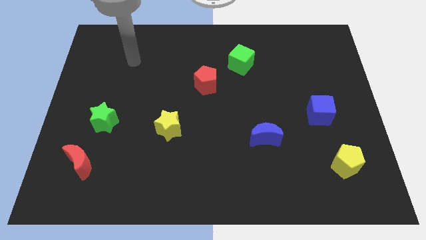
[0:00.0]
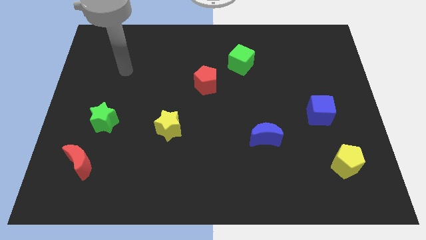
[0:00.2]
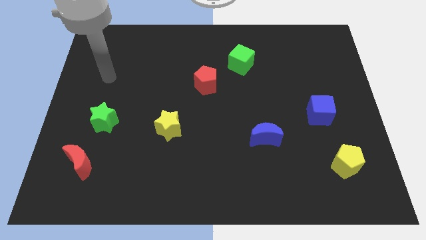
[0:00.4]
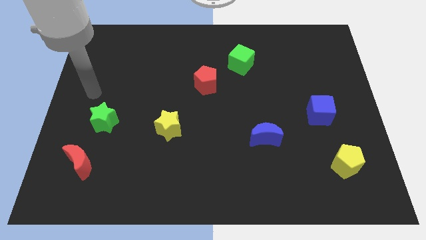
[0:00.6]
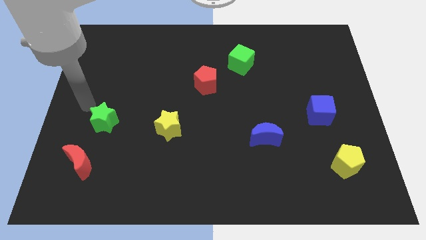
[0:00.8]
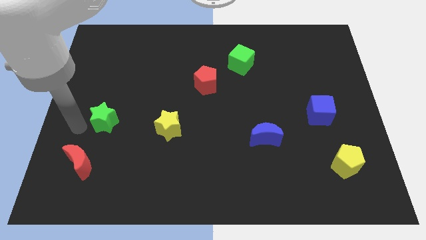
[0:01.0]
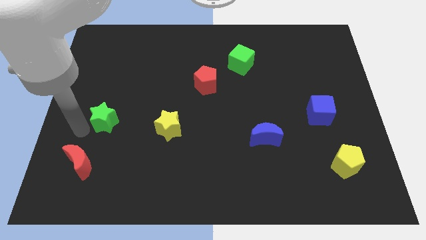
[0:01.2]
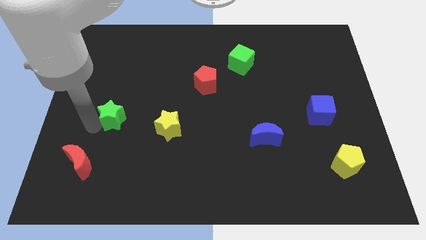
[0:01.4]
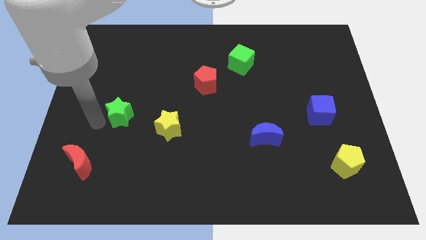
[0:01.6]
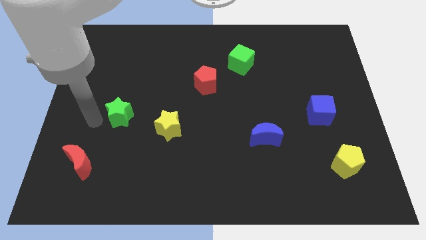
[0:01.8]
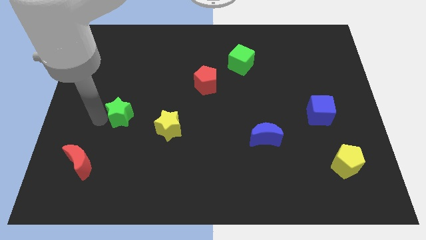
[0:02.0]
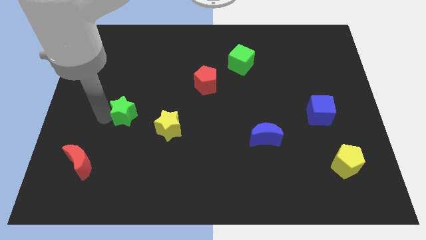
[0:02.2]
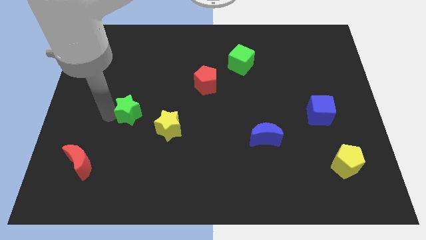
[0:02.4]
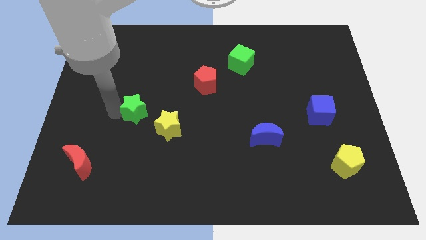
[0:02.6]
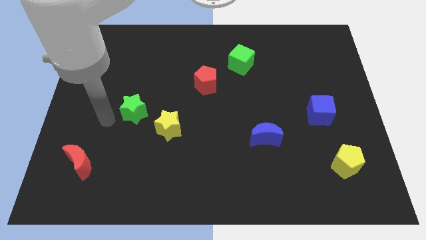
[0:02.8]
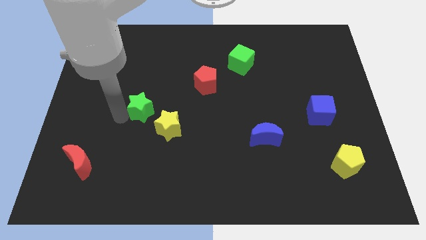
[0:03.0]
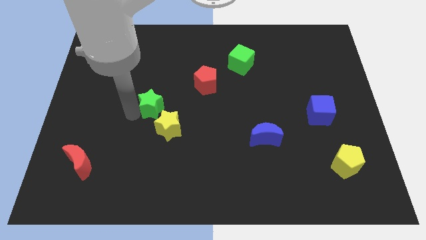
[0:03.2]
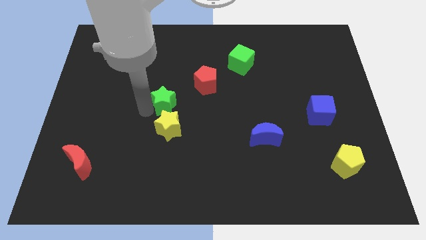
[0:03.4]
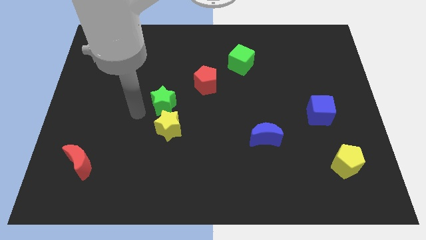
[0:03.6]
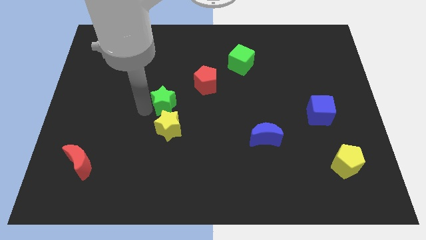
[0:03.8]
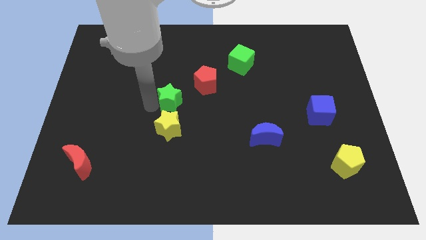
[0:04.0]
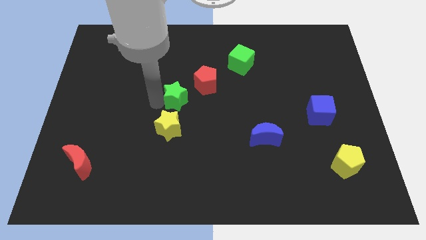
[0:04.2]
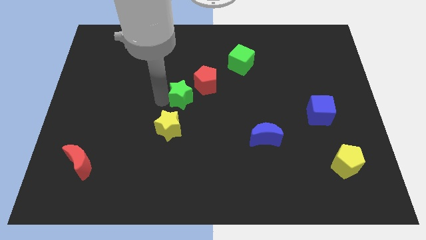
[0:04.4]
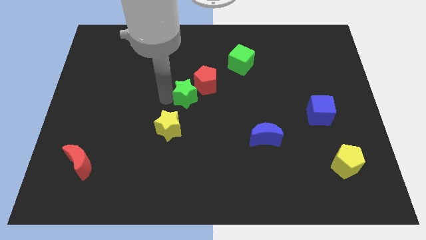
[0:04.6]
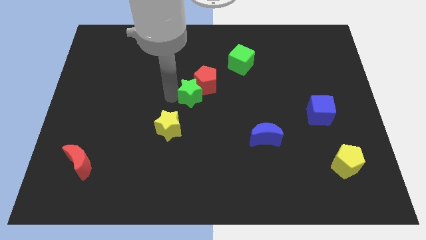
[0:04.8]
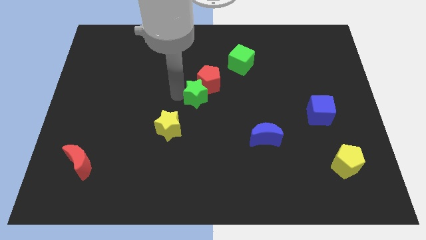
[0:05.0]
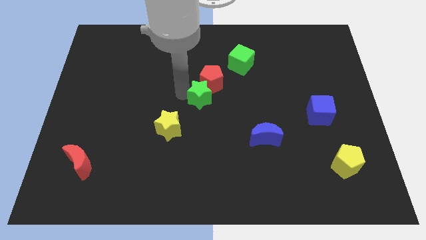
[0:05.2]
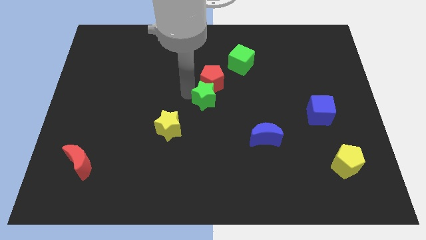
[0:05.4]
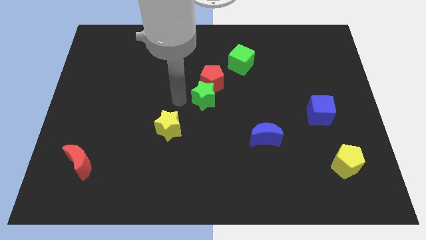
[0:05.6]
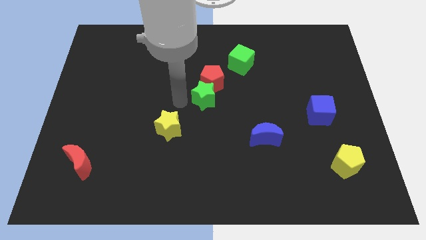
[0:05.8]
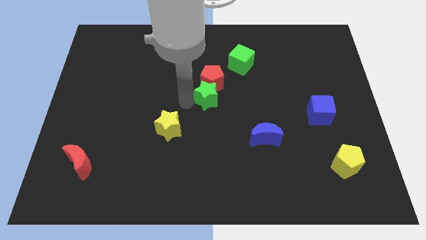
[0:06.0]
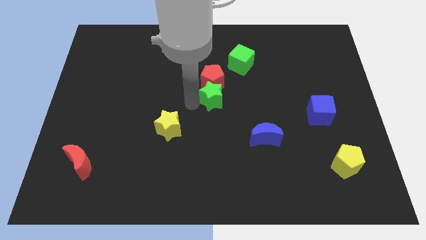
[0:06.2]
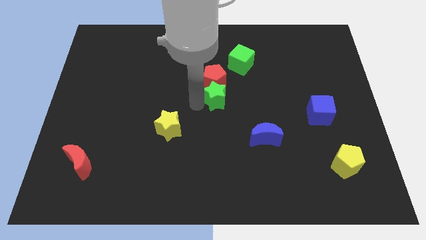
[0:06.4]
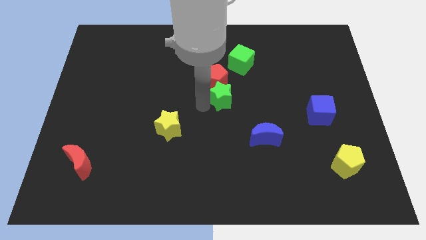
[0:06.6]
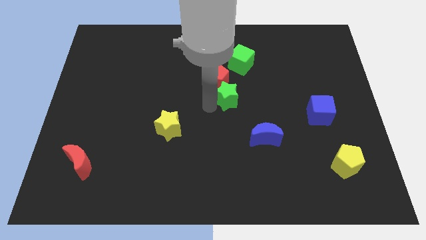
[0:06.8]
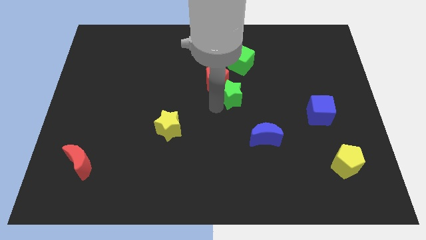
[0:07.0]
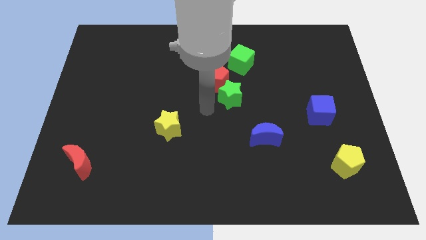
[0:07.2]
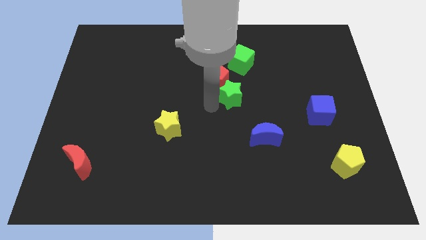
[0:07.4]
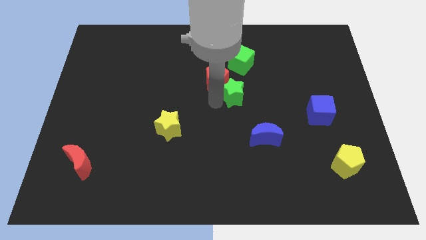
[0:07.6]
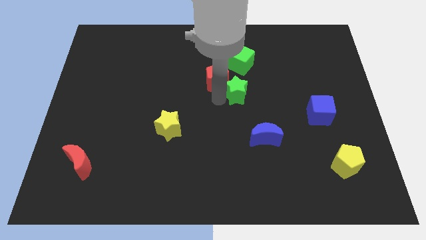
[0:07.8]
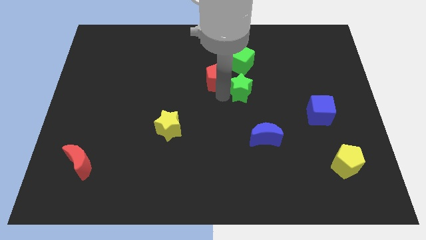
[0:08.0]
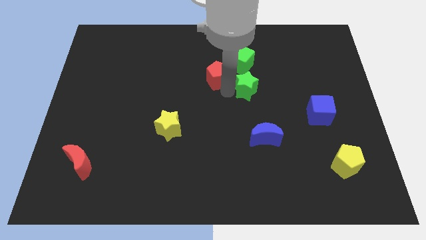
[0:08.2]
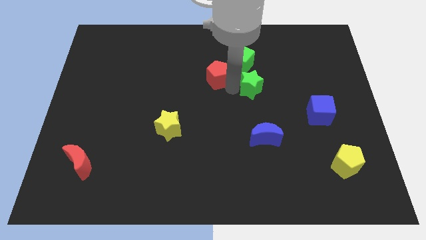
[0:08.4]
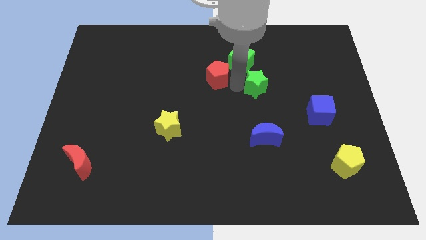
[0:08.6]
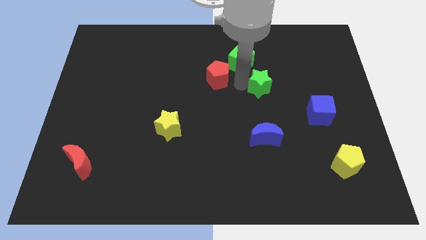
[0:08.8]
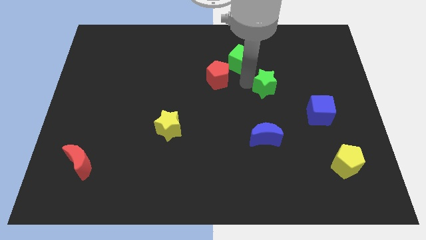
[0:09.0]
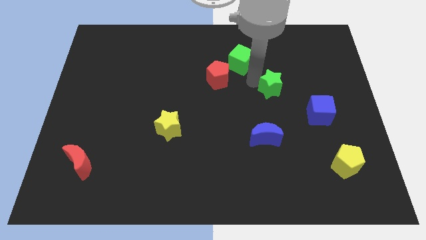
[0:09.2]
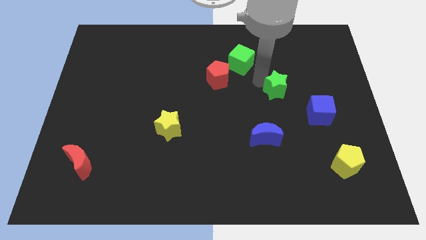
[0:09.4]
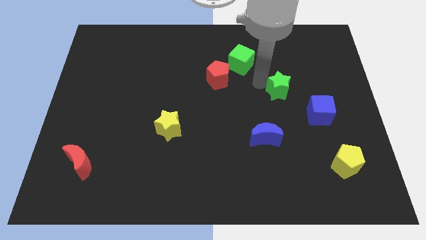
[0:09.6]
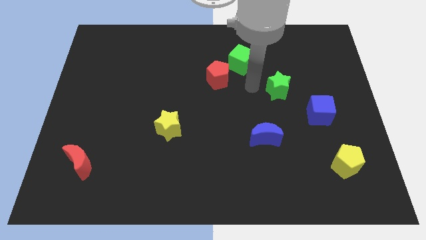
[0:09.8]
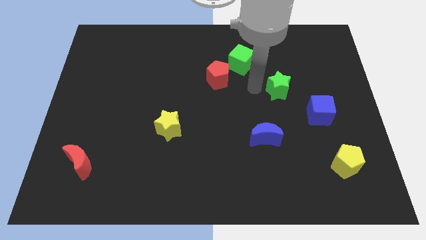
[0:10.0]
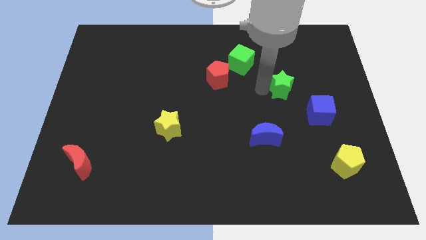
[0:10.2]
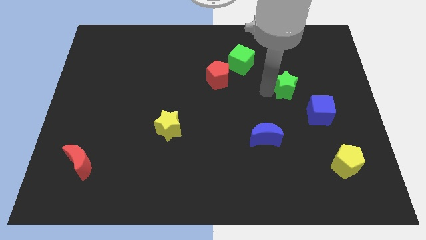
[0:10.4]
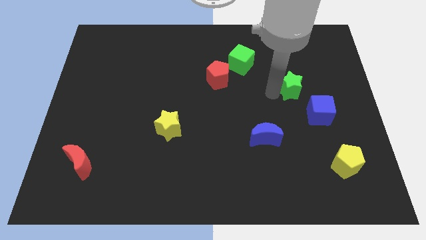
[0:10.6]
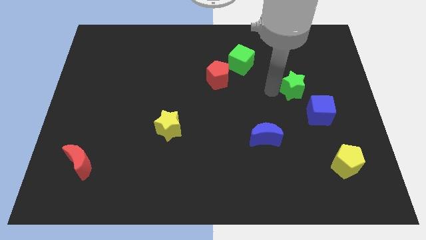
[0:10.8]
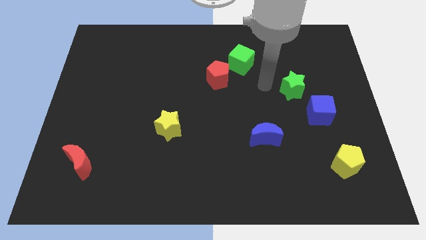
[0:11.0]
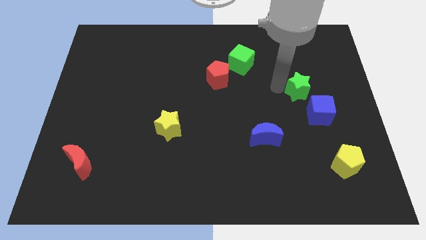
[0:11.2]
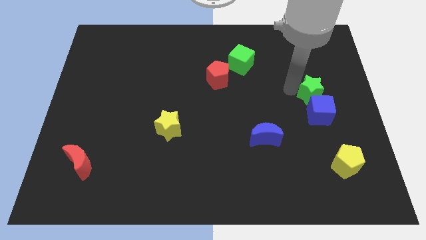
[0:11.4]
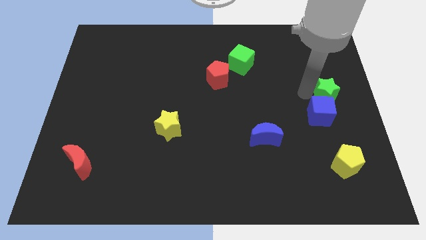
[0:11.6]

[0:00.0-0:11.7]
move the green star to the center right
